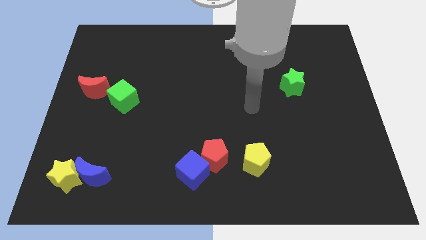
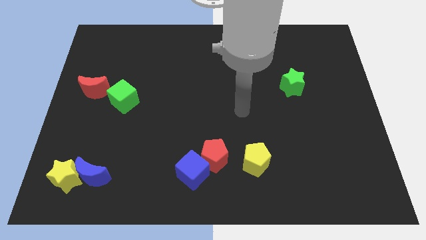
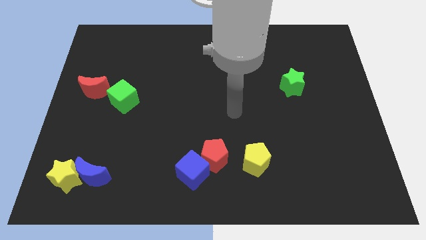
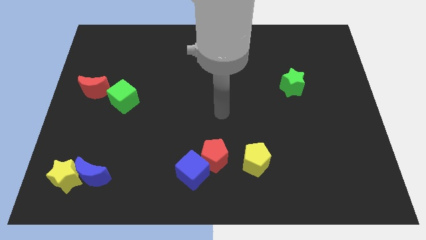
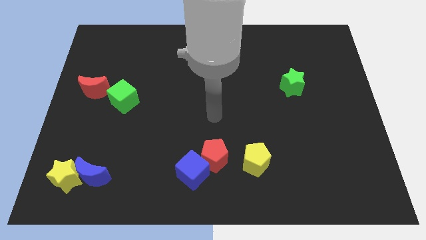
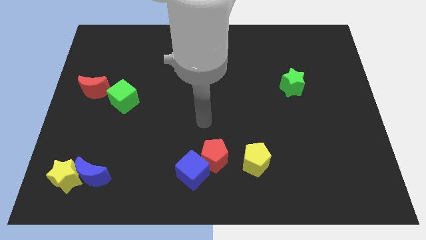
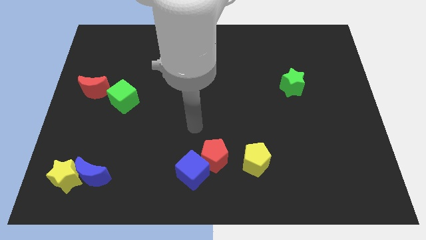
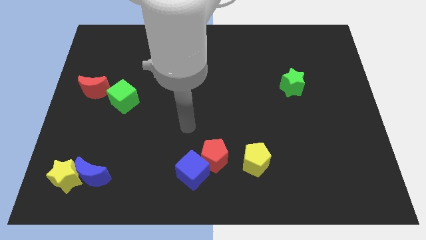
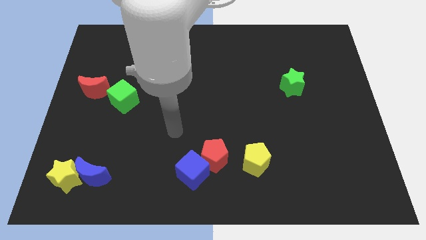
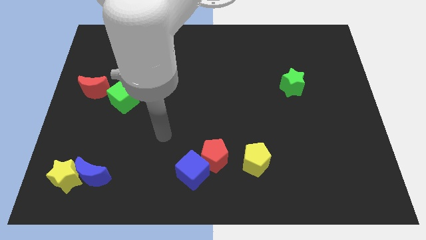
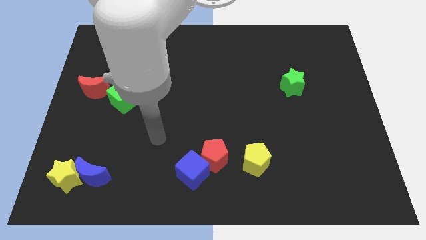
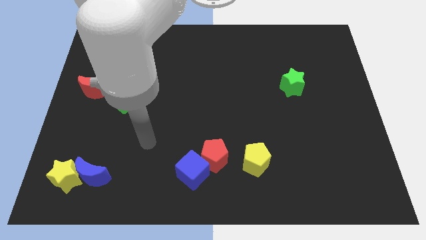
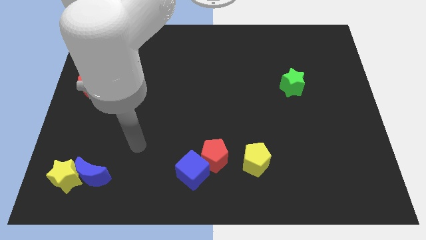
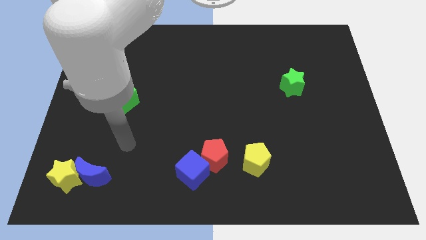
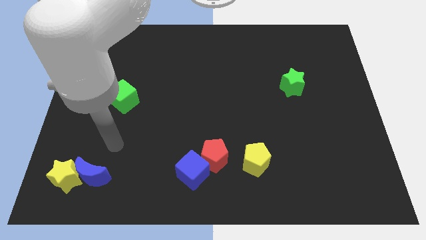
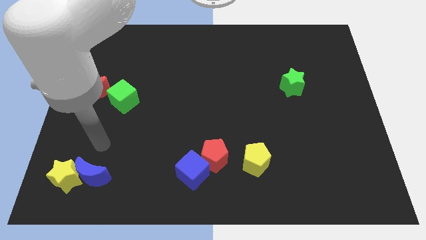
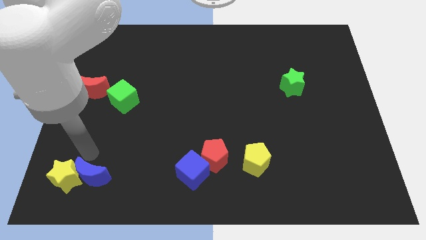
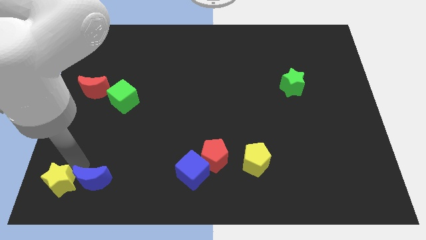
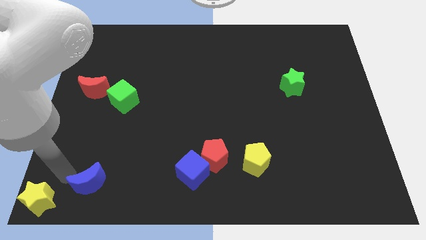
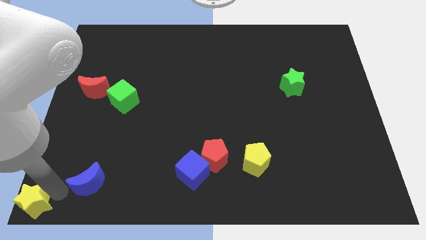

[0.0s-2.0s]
move the blue moon away from the yellow star

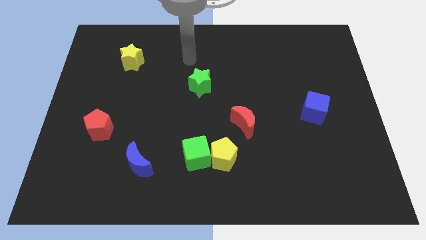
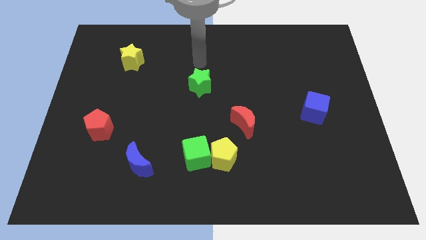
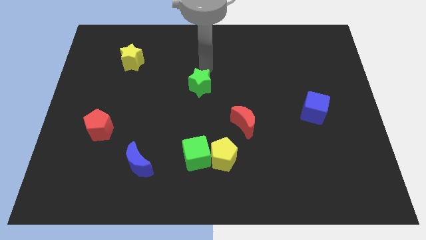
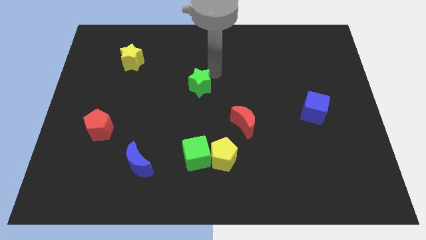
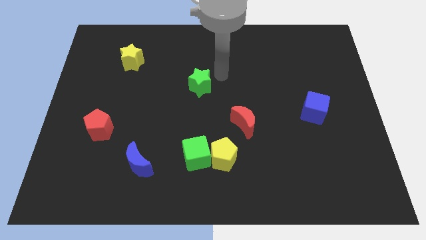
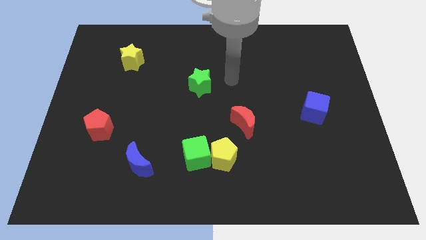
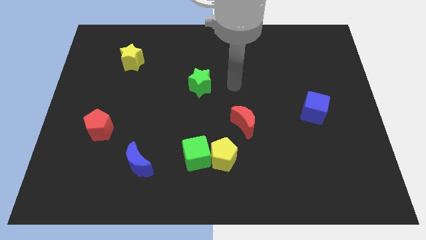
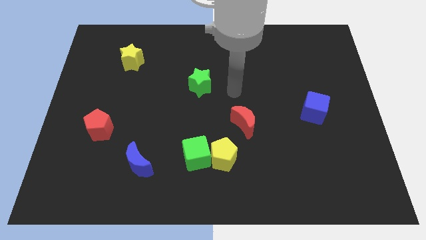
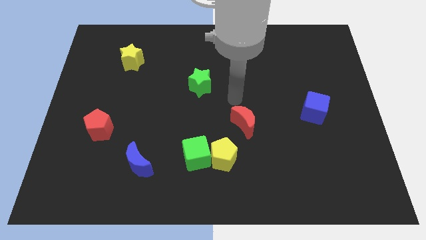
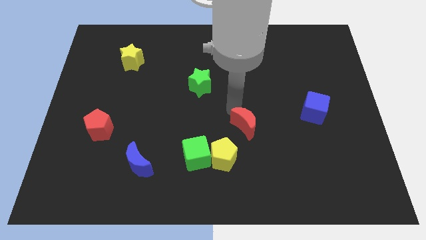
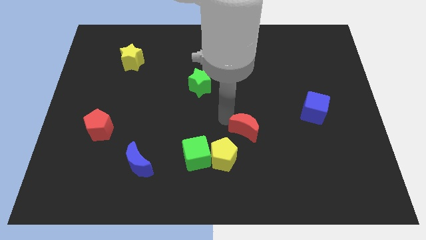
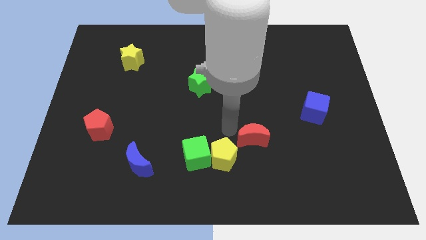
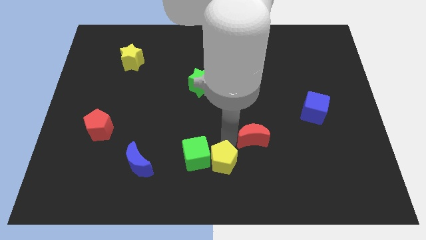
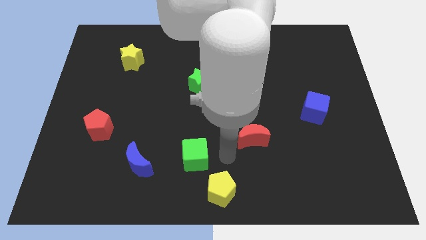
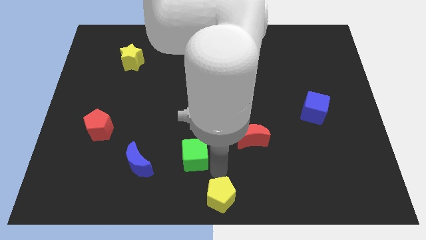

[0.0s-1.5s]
pull the green cube apart from the yellow pentagon

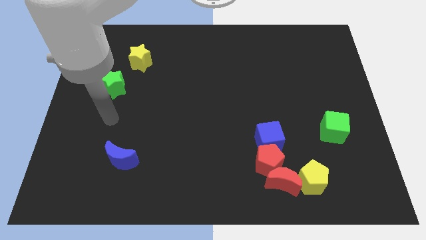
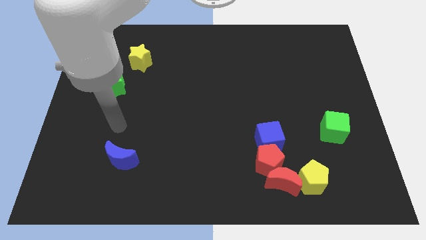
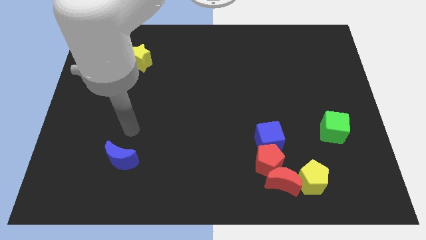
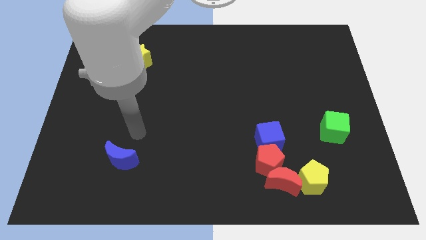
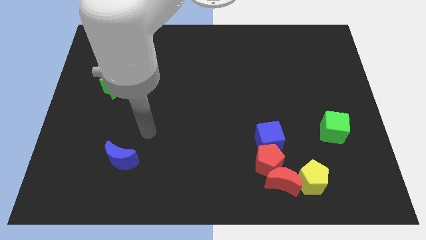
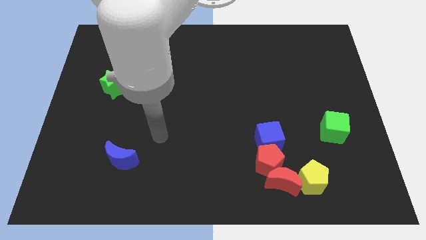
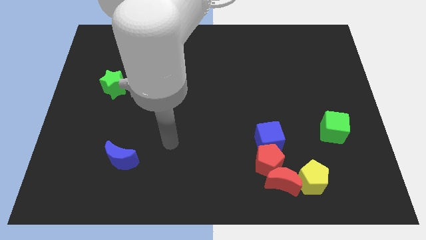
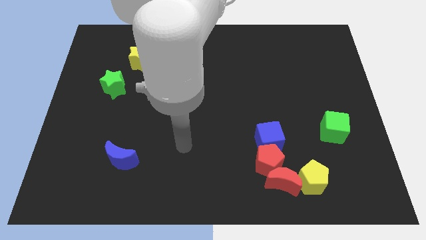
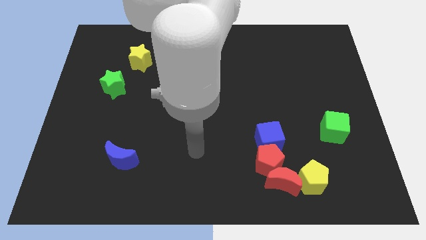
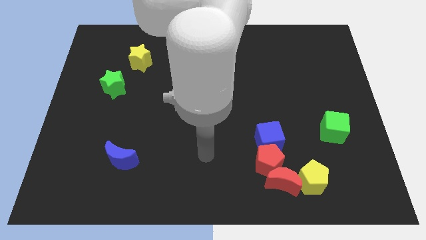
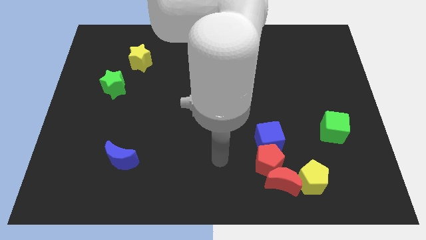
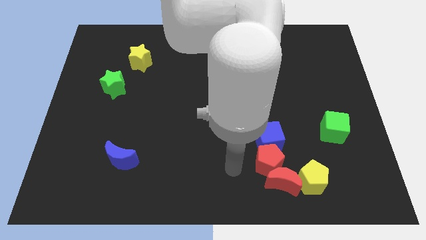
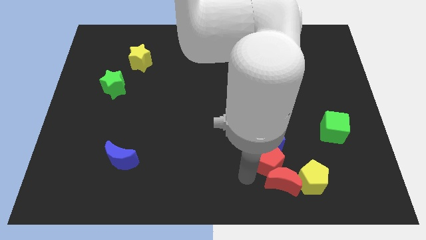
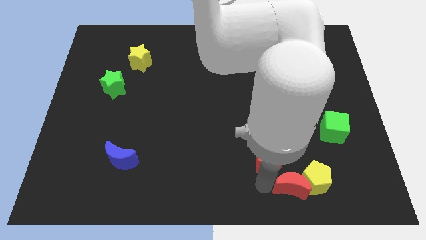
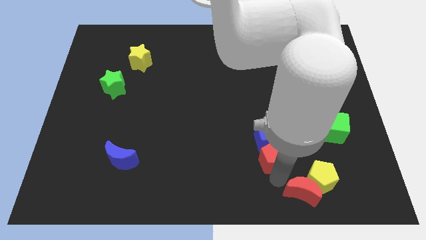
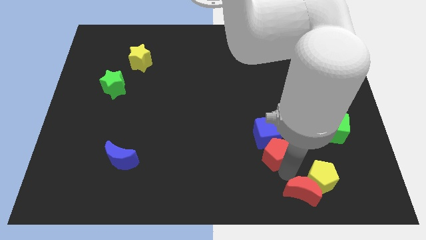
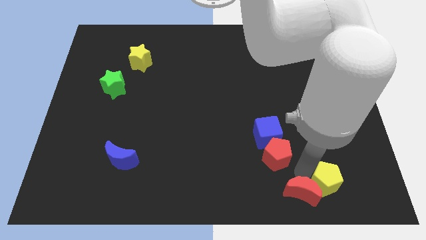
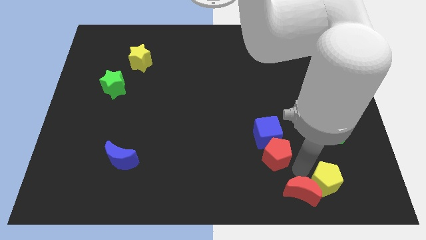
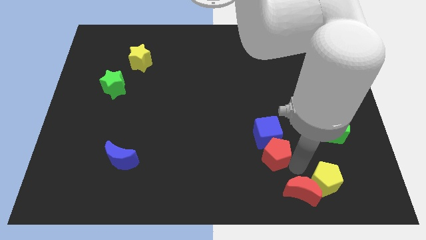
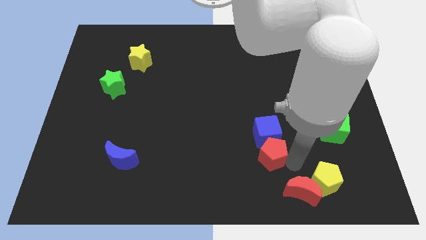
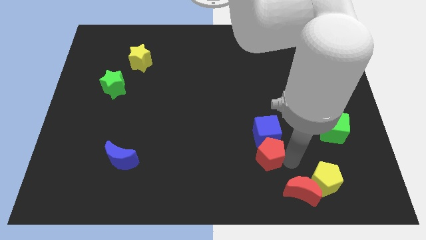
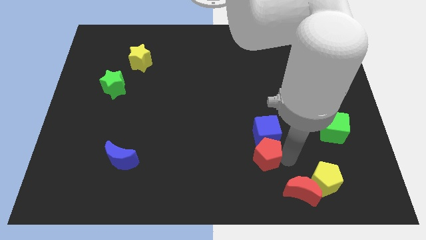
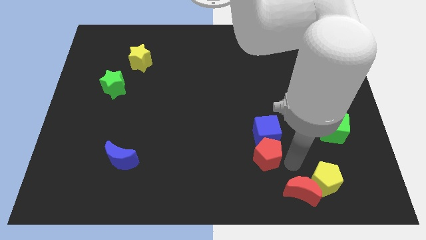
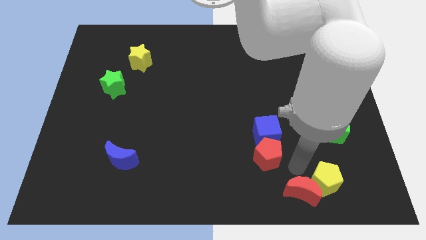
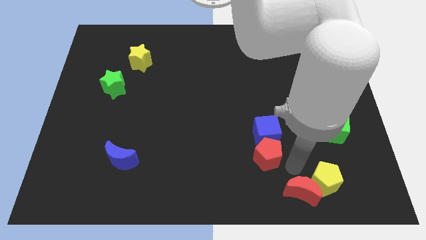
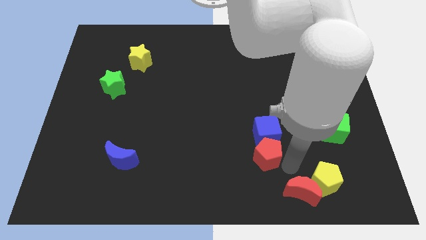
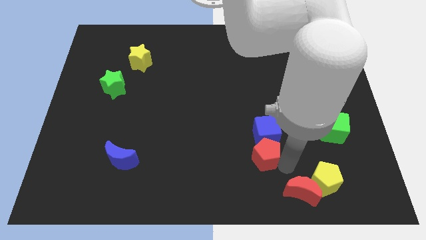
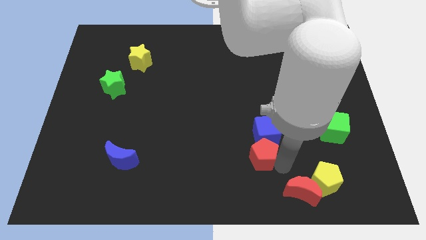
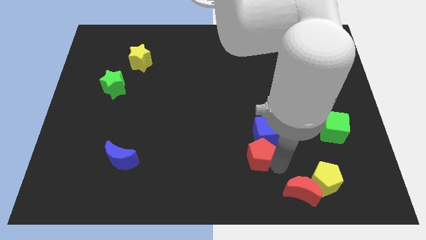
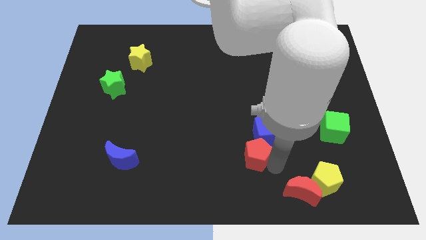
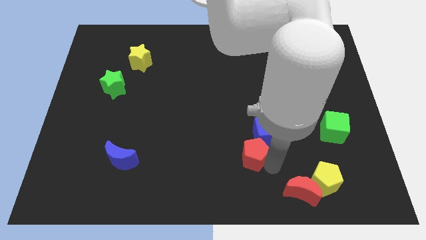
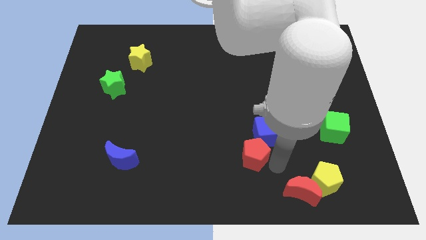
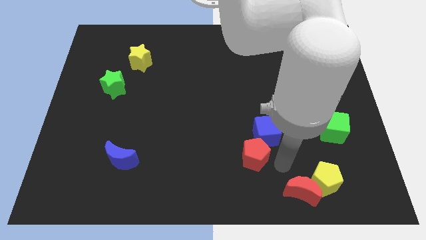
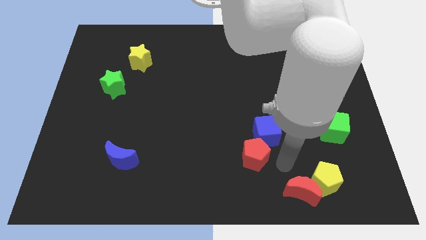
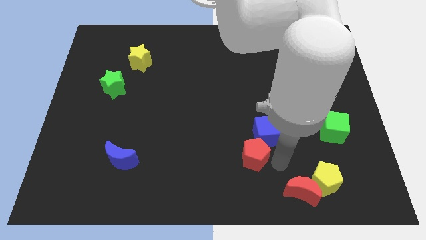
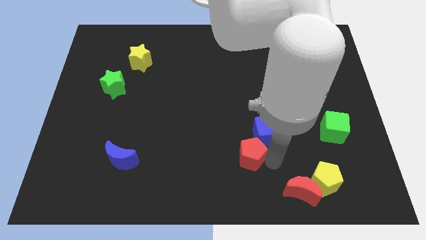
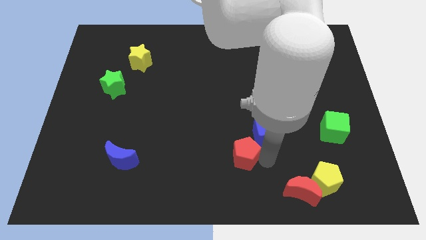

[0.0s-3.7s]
move the red pentagon away from the red moon, blue cube, and yellow pentagon

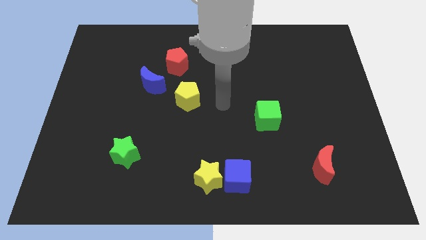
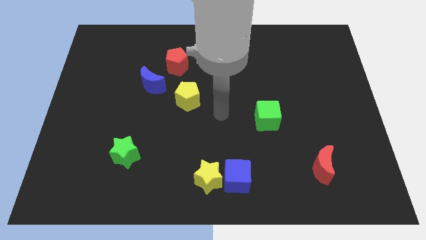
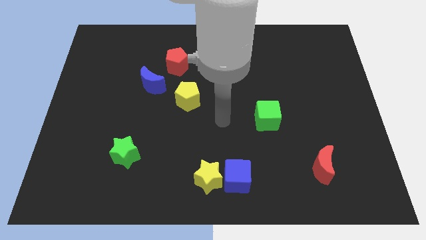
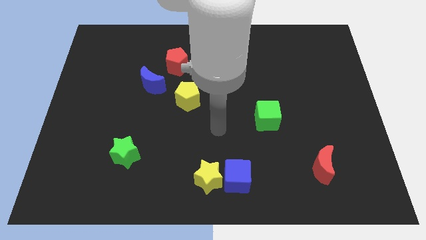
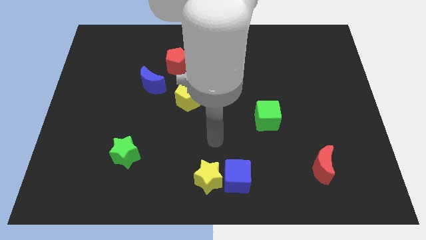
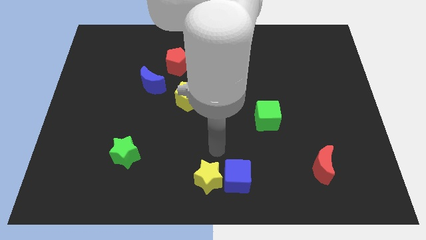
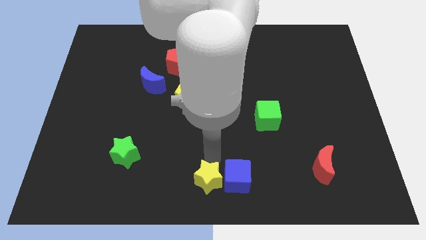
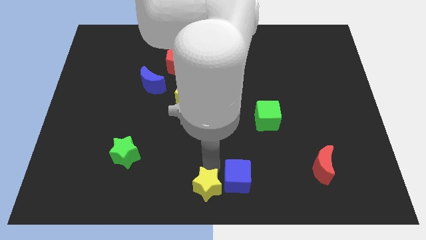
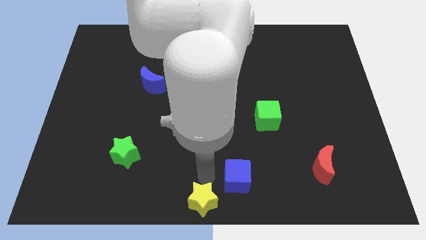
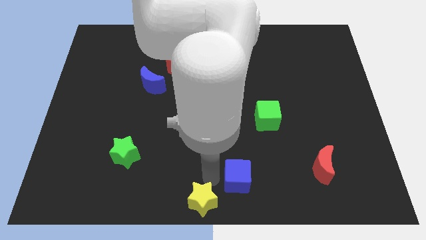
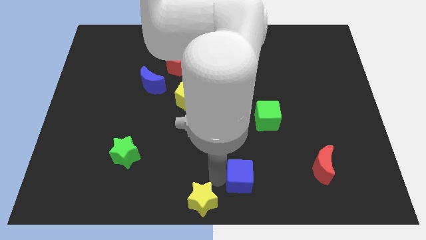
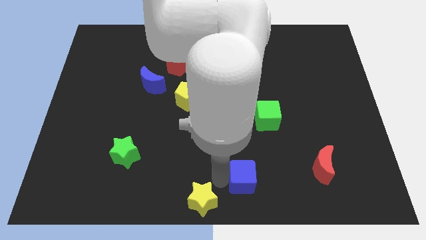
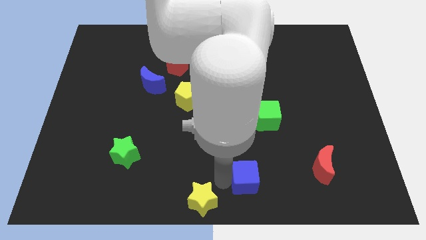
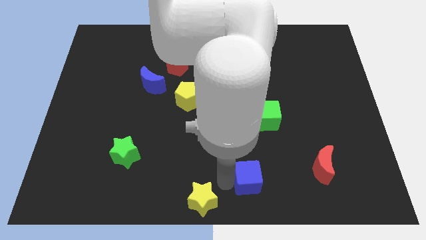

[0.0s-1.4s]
pull the blue cube apart from the yellow star

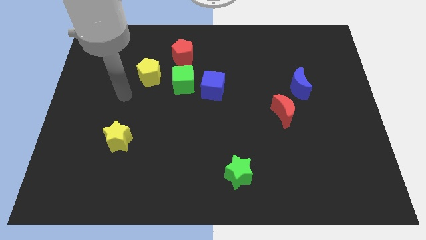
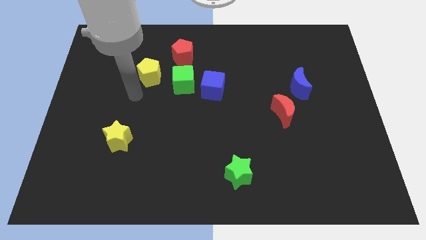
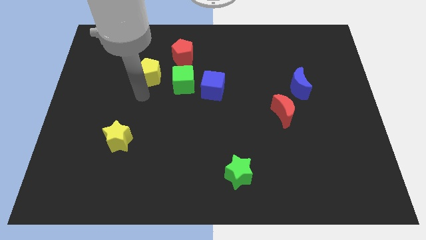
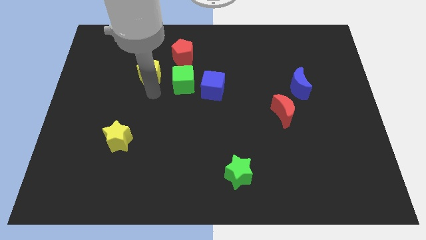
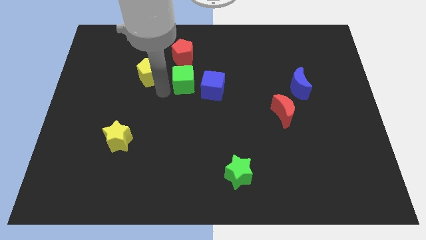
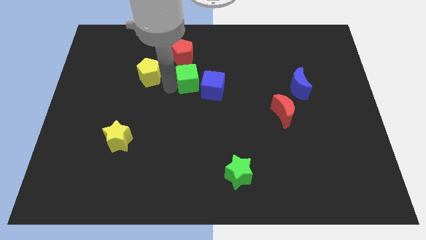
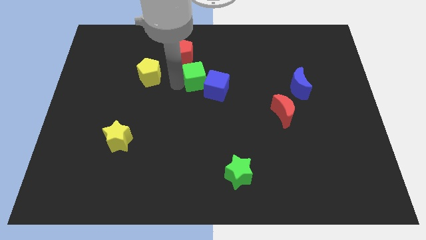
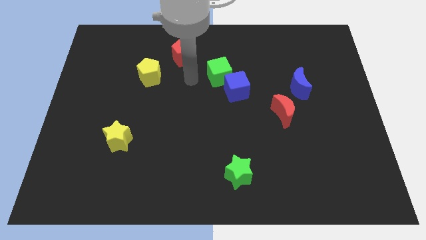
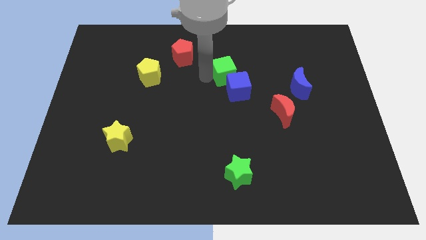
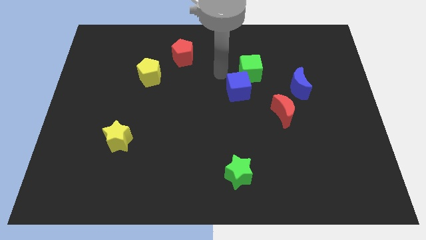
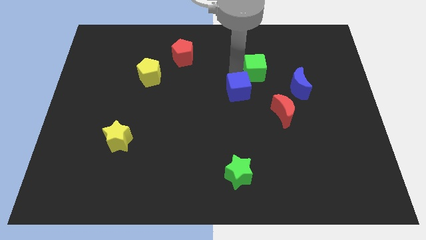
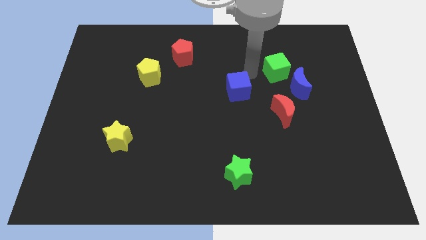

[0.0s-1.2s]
move the blue cube away from the green cube
